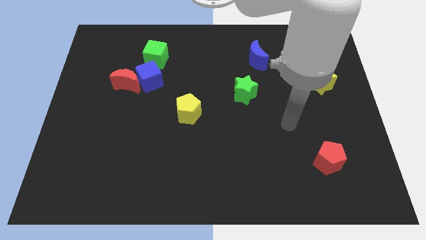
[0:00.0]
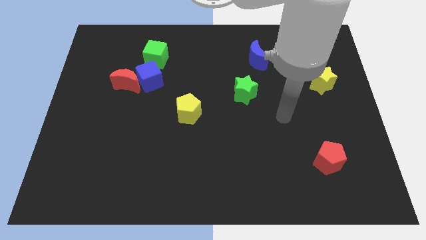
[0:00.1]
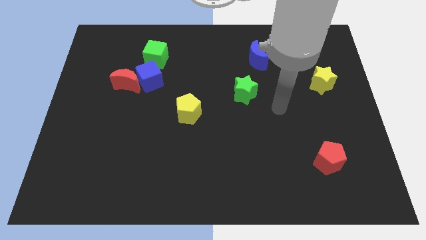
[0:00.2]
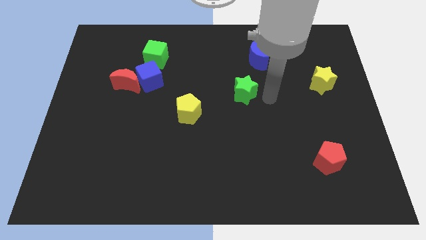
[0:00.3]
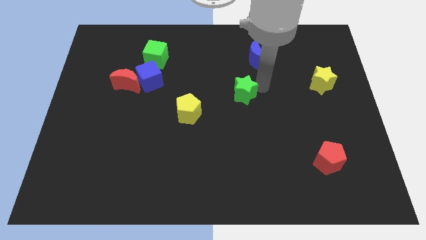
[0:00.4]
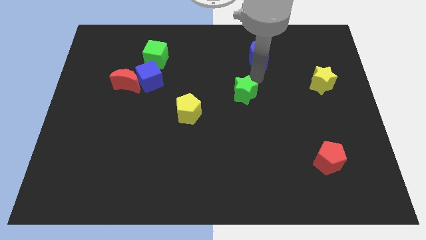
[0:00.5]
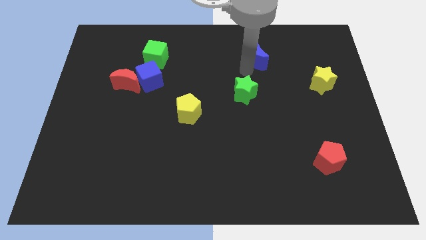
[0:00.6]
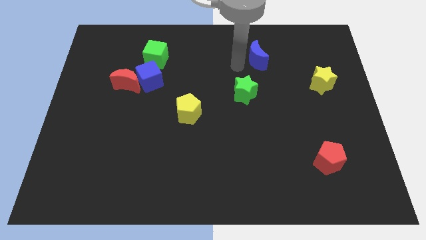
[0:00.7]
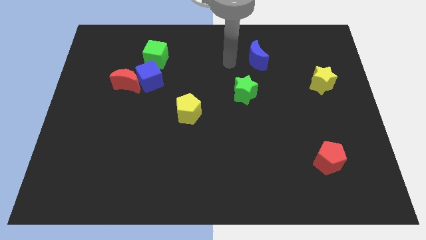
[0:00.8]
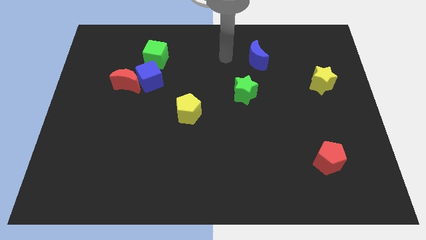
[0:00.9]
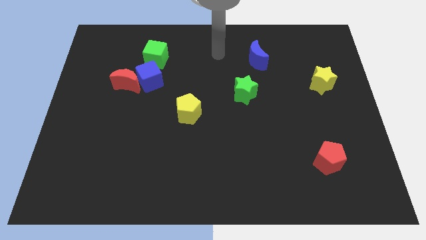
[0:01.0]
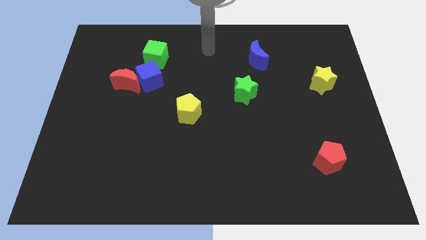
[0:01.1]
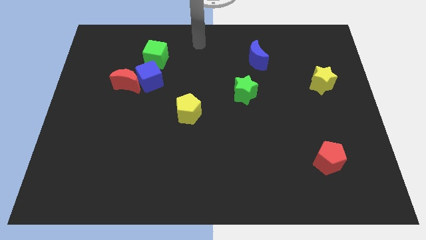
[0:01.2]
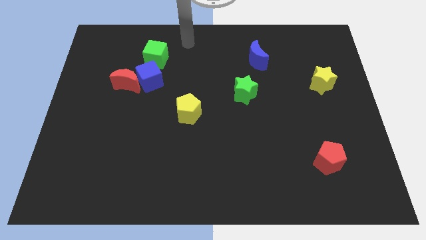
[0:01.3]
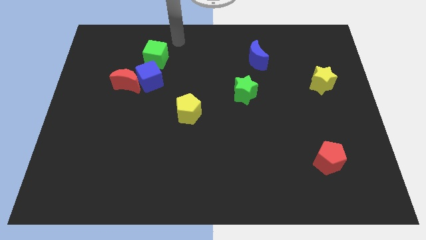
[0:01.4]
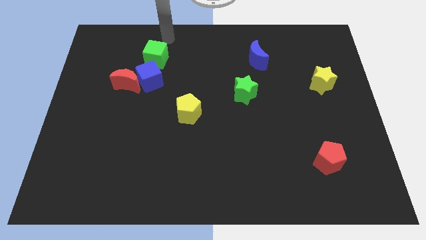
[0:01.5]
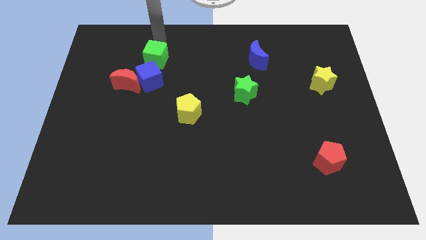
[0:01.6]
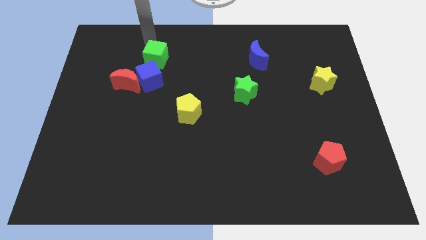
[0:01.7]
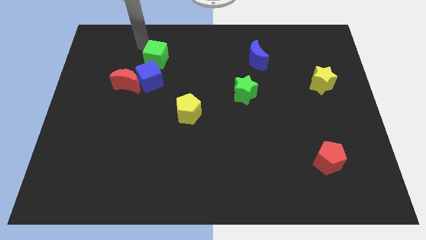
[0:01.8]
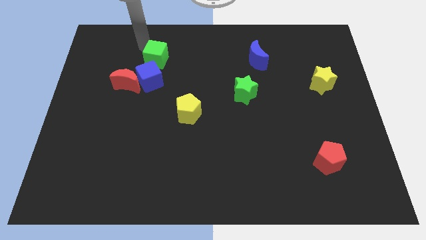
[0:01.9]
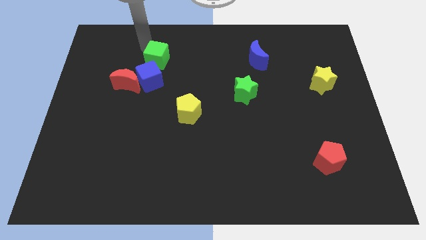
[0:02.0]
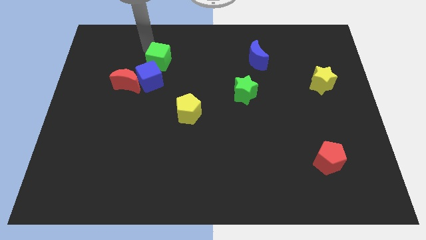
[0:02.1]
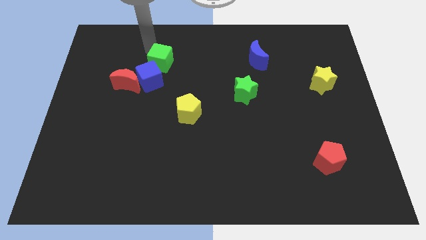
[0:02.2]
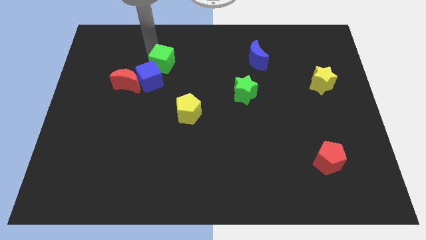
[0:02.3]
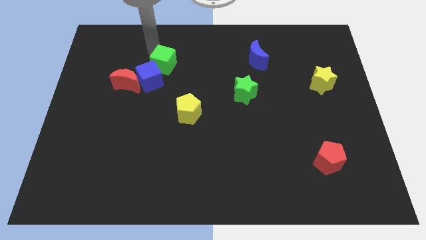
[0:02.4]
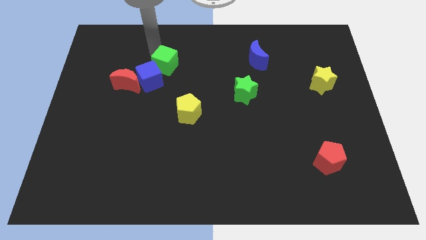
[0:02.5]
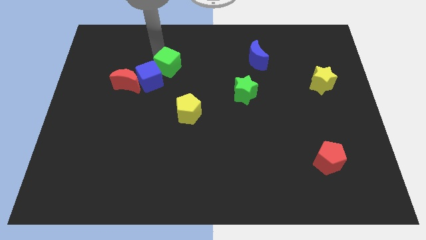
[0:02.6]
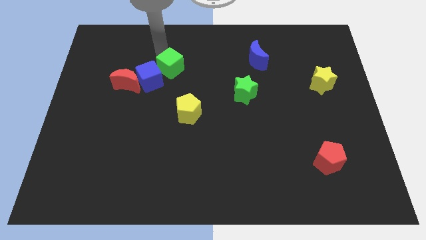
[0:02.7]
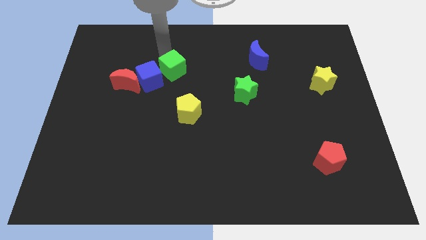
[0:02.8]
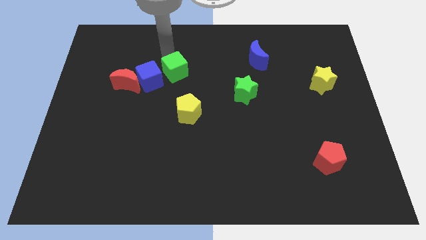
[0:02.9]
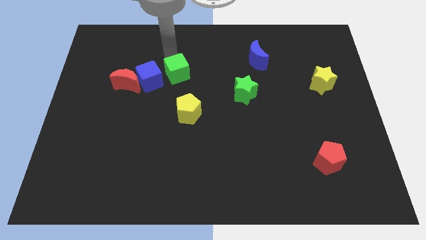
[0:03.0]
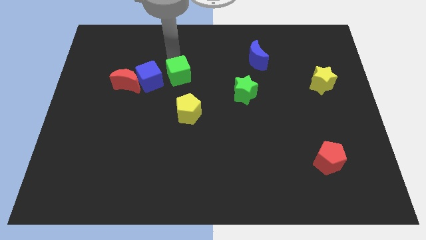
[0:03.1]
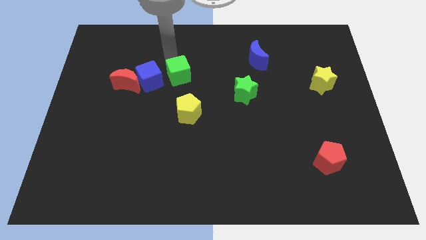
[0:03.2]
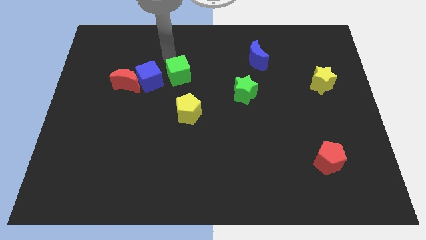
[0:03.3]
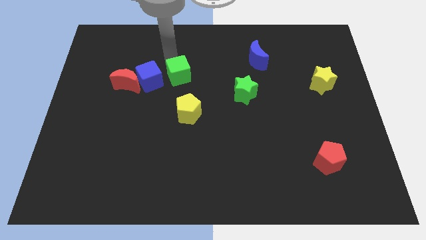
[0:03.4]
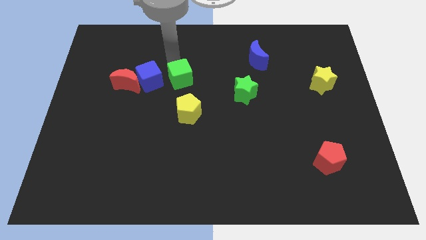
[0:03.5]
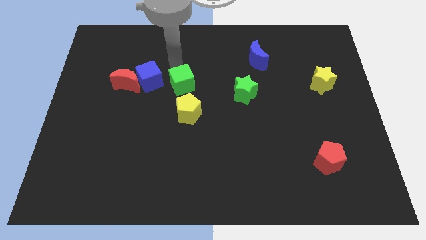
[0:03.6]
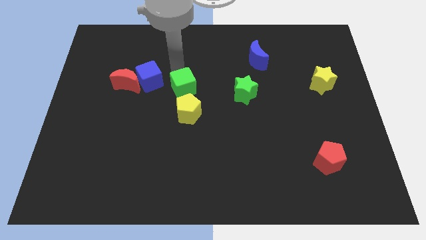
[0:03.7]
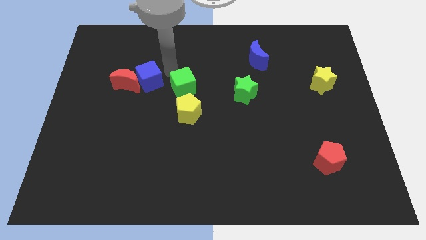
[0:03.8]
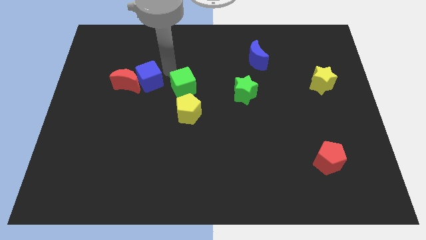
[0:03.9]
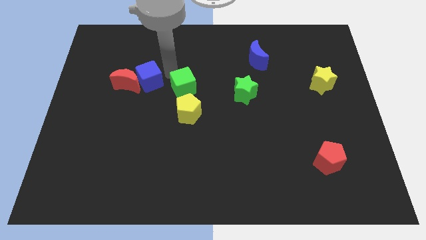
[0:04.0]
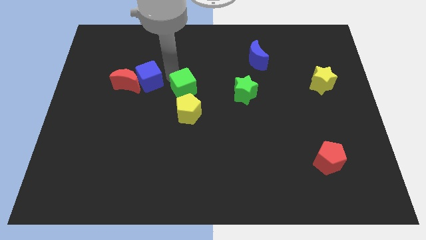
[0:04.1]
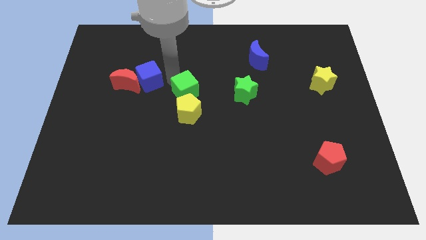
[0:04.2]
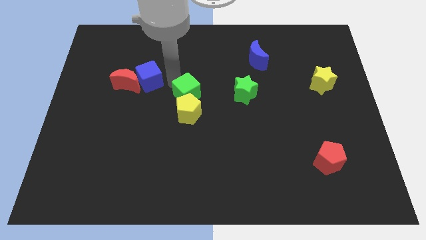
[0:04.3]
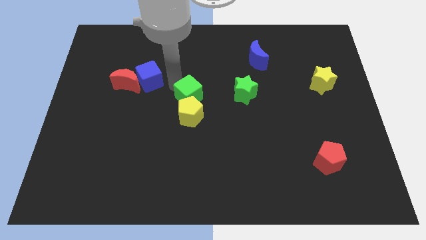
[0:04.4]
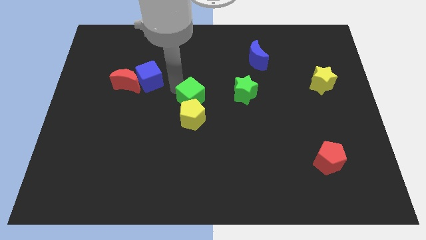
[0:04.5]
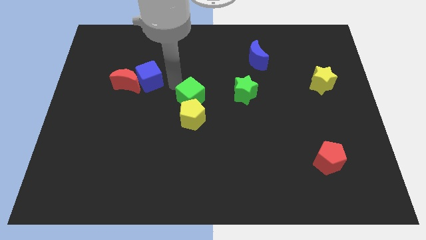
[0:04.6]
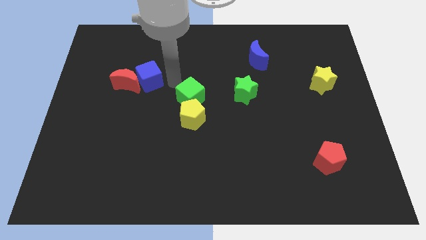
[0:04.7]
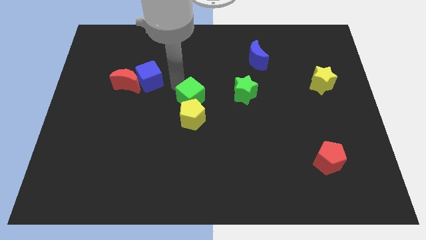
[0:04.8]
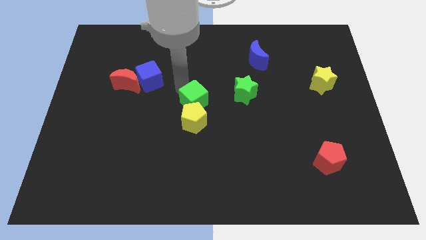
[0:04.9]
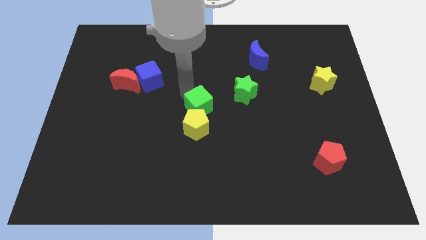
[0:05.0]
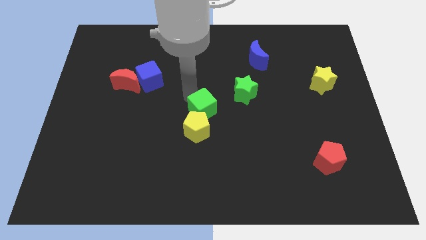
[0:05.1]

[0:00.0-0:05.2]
slide the green cube down and to the right

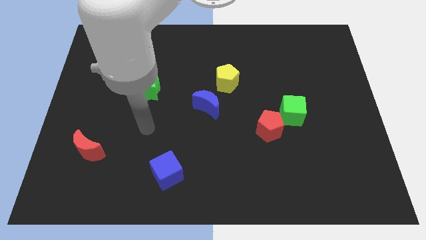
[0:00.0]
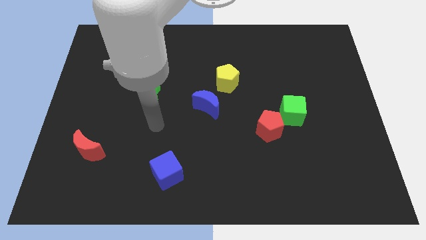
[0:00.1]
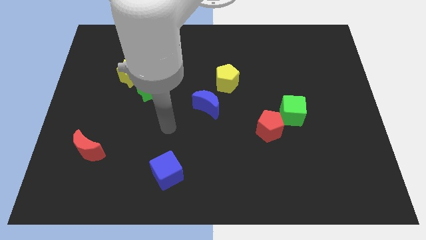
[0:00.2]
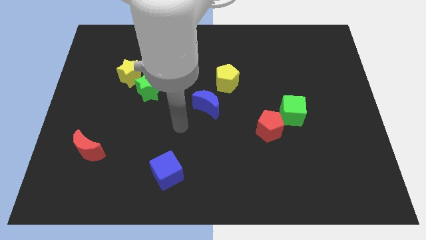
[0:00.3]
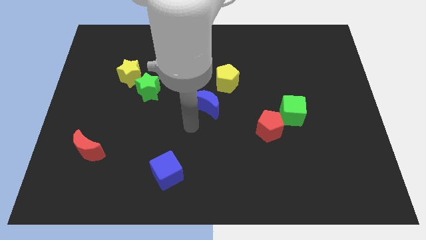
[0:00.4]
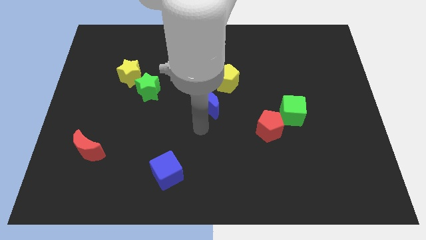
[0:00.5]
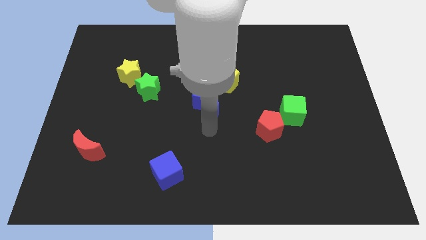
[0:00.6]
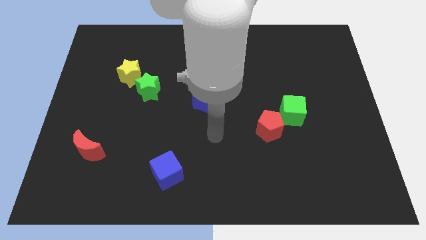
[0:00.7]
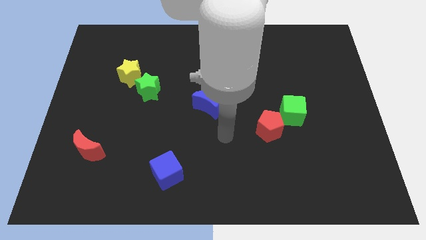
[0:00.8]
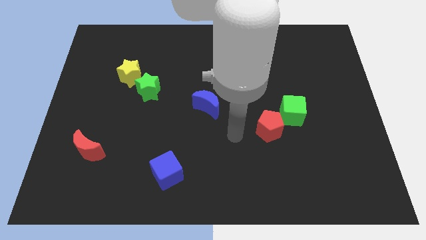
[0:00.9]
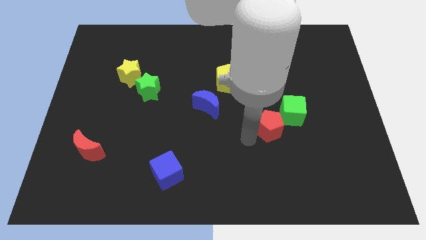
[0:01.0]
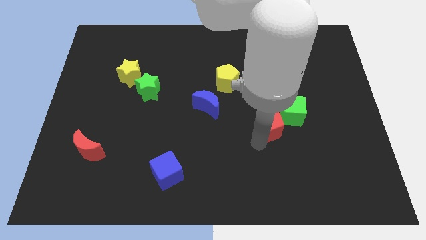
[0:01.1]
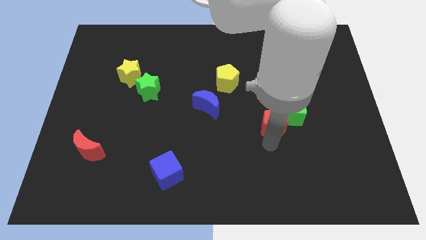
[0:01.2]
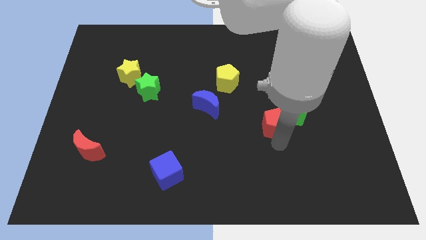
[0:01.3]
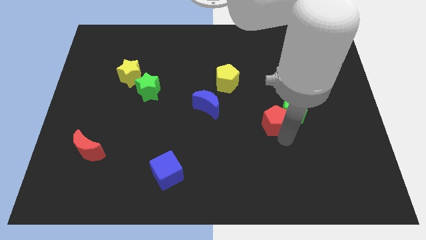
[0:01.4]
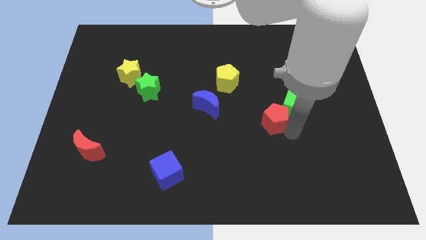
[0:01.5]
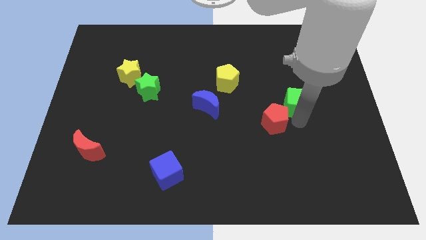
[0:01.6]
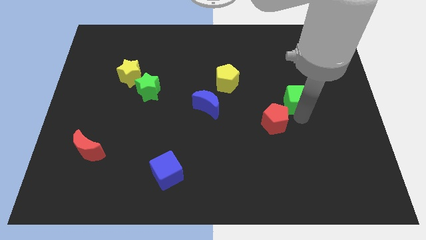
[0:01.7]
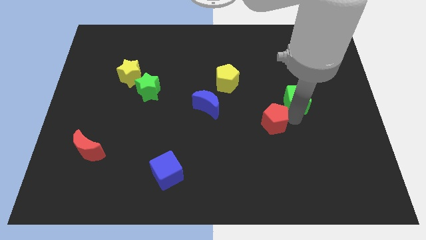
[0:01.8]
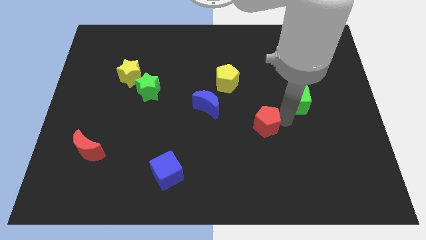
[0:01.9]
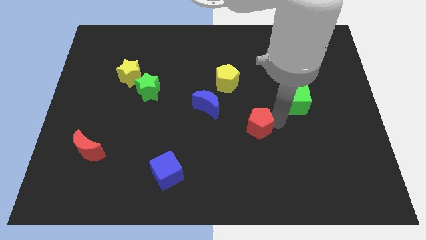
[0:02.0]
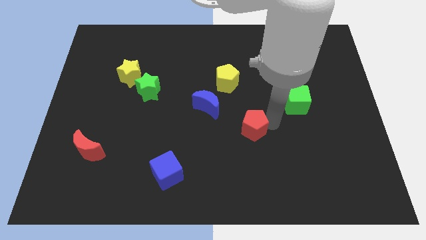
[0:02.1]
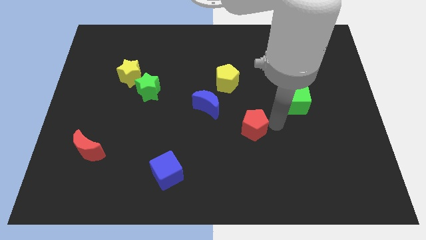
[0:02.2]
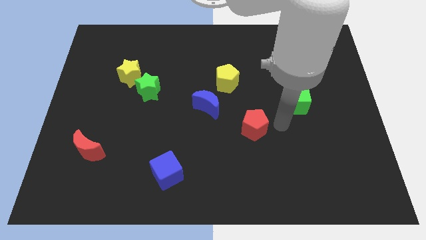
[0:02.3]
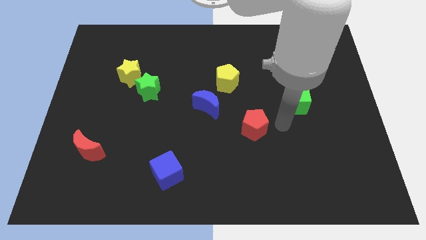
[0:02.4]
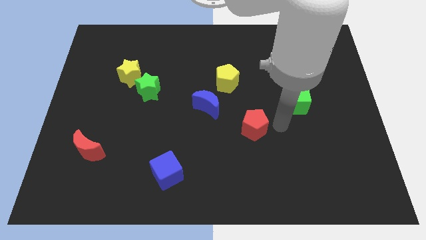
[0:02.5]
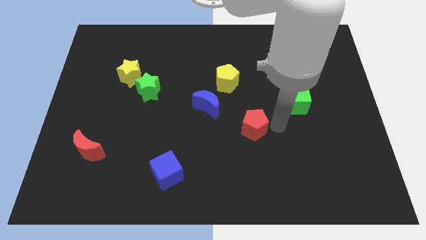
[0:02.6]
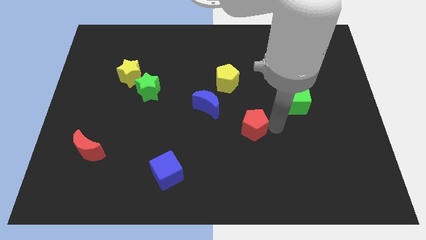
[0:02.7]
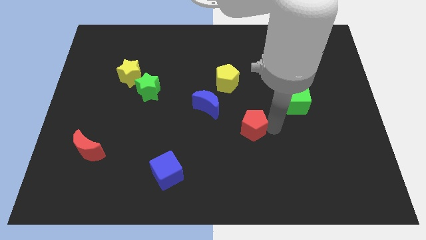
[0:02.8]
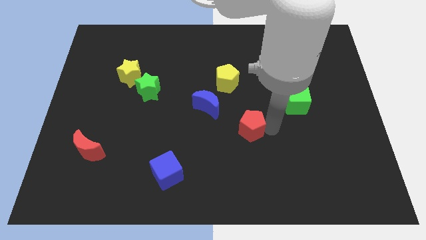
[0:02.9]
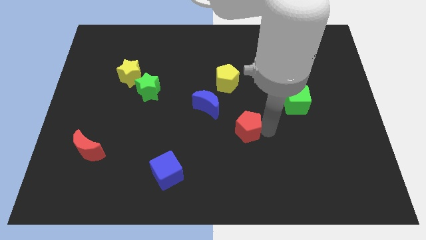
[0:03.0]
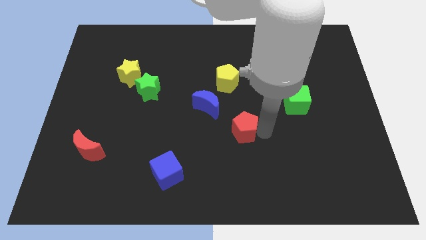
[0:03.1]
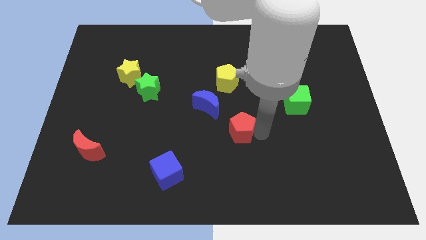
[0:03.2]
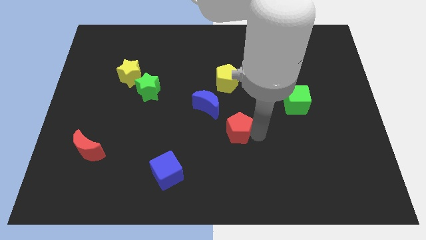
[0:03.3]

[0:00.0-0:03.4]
slightly slide the red pentagon left
